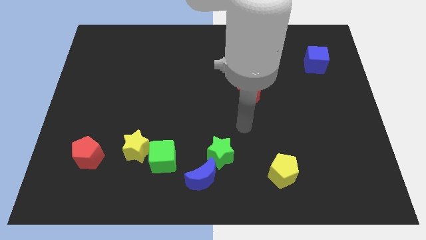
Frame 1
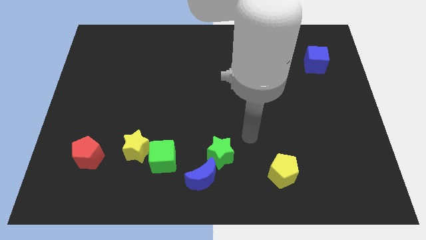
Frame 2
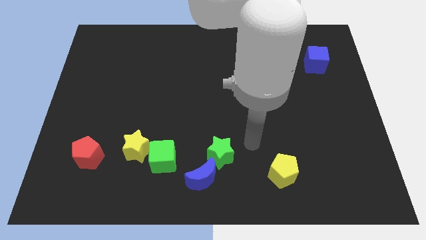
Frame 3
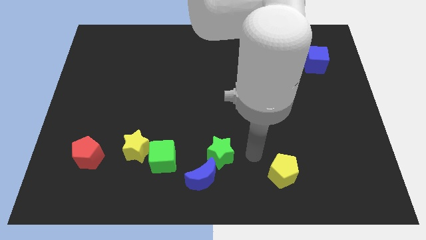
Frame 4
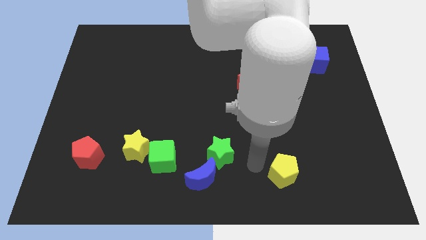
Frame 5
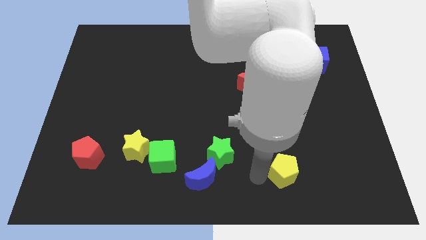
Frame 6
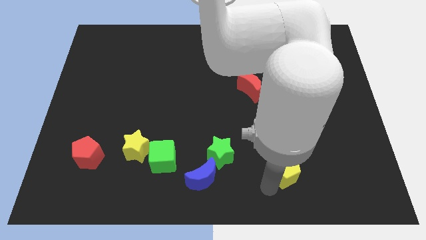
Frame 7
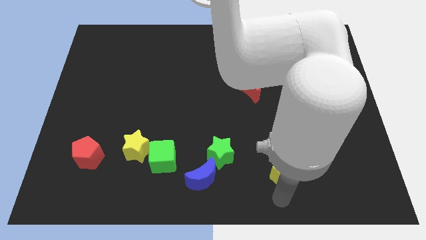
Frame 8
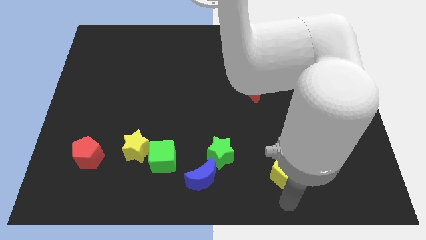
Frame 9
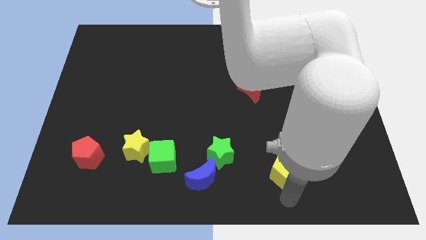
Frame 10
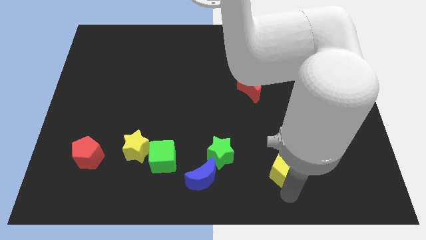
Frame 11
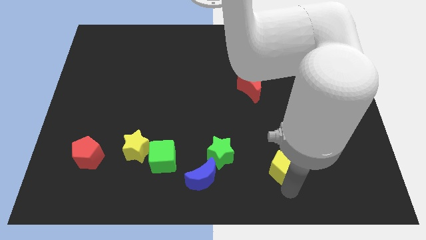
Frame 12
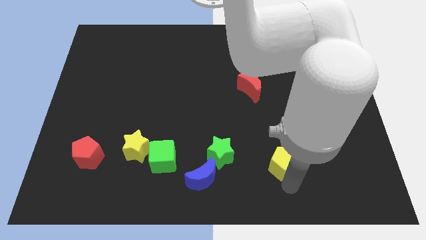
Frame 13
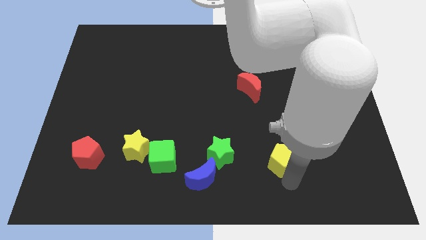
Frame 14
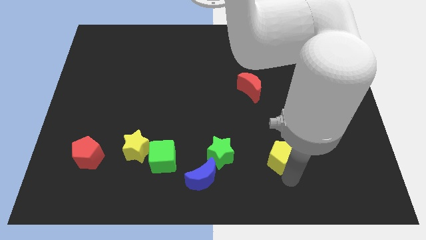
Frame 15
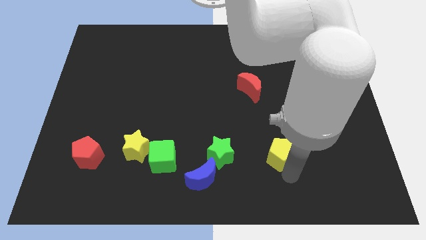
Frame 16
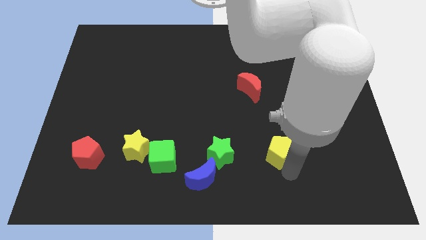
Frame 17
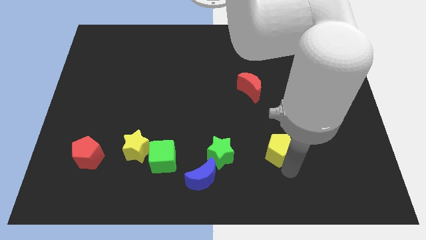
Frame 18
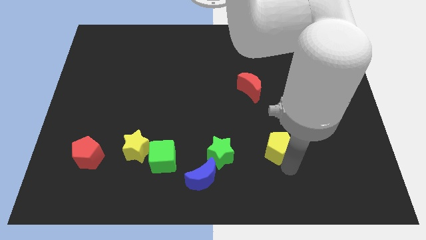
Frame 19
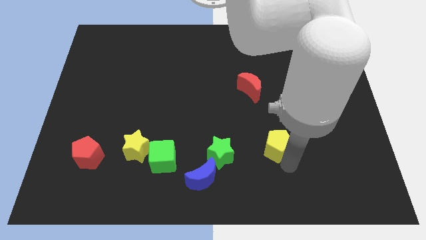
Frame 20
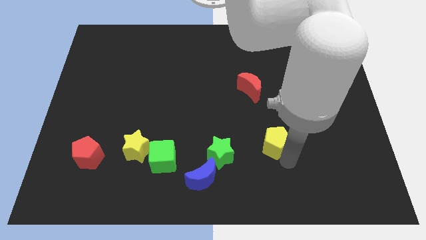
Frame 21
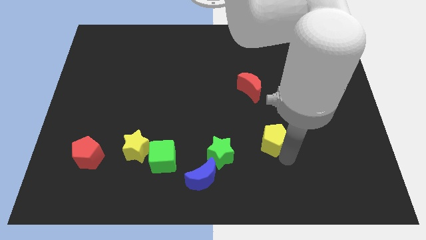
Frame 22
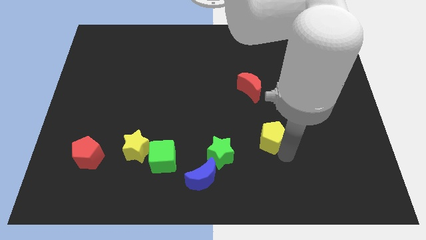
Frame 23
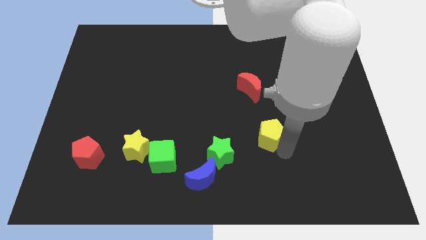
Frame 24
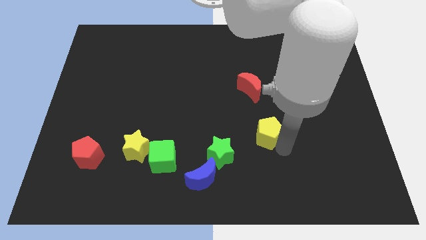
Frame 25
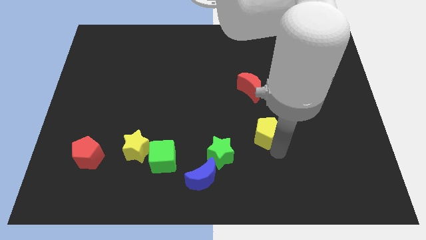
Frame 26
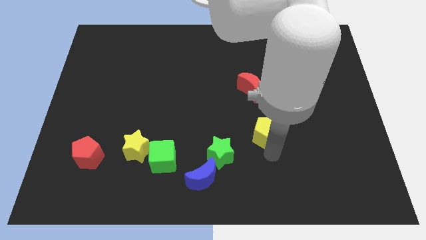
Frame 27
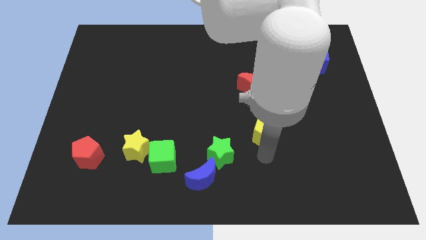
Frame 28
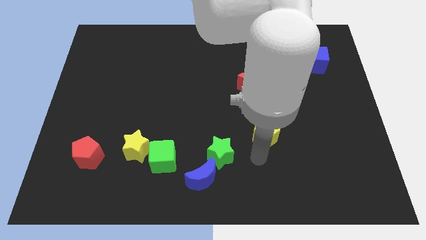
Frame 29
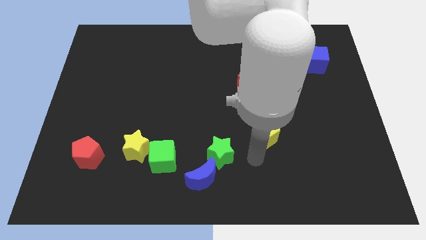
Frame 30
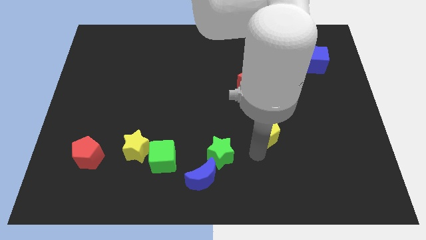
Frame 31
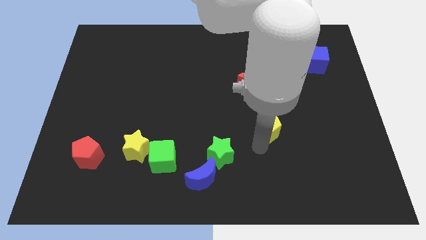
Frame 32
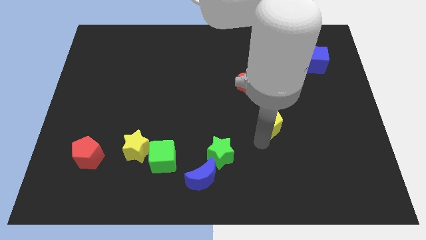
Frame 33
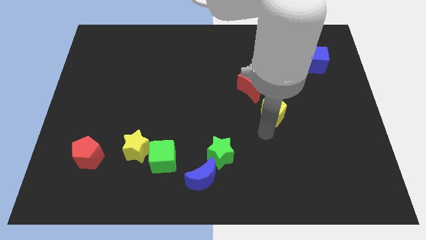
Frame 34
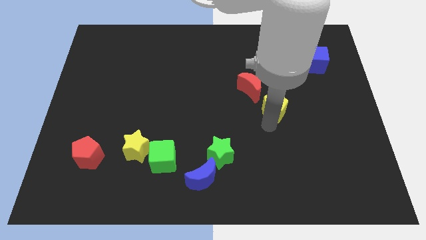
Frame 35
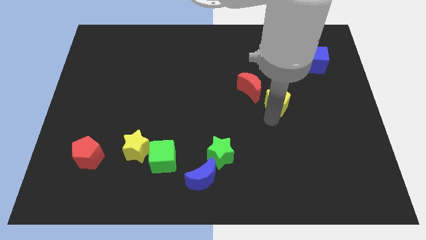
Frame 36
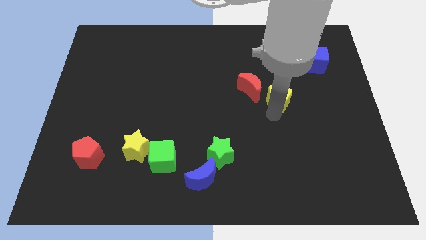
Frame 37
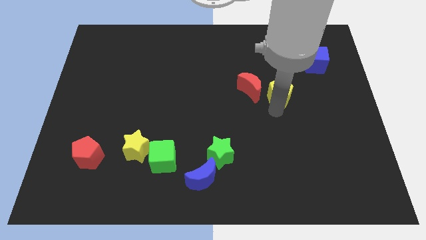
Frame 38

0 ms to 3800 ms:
push the yellow pentagon upwards

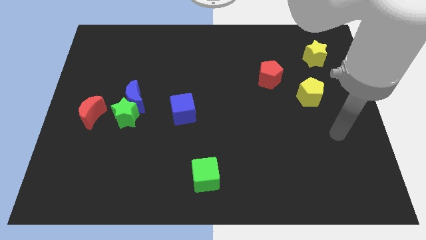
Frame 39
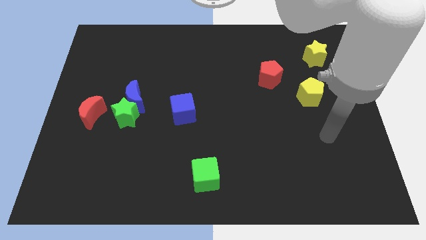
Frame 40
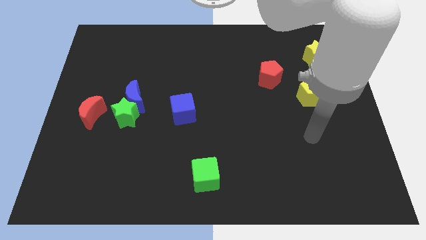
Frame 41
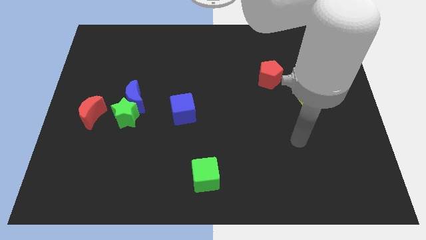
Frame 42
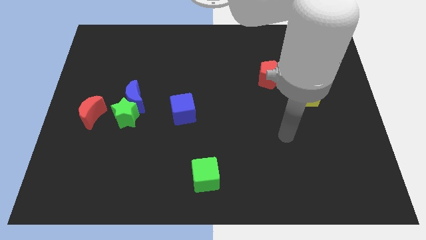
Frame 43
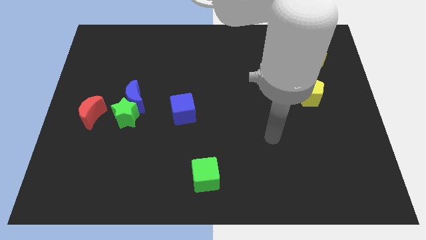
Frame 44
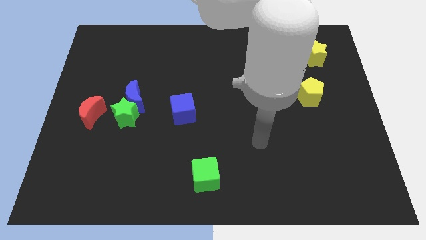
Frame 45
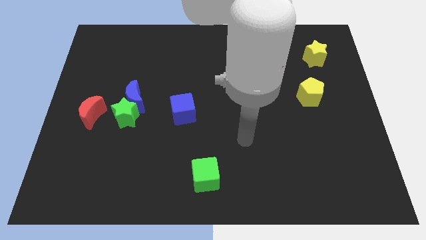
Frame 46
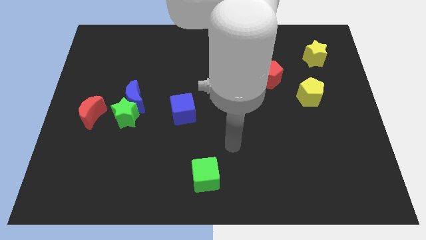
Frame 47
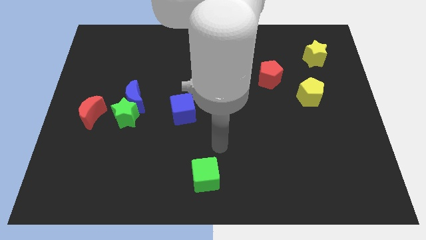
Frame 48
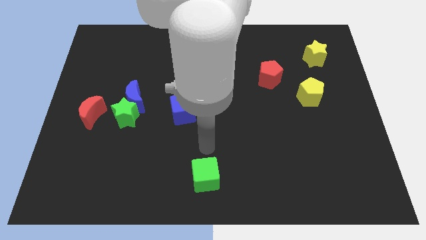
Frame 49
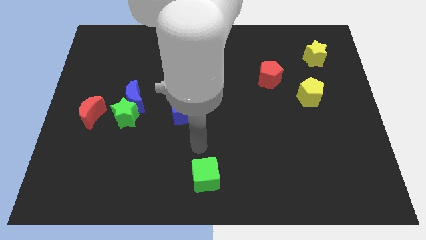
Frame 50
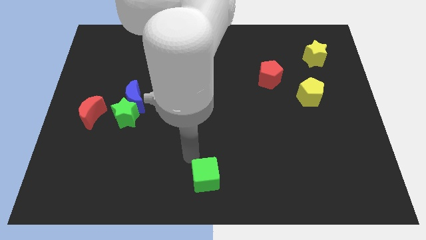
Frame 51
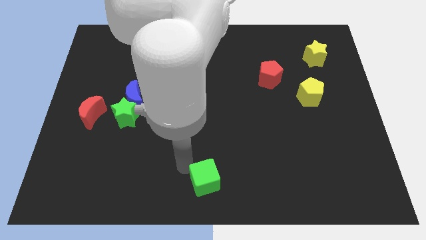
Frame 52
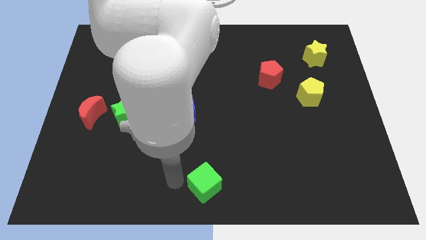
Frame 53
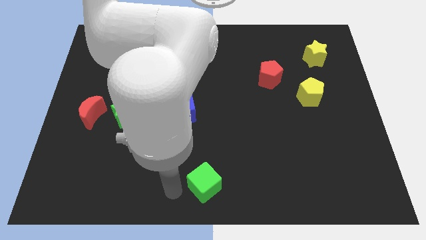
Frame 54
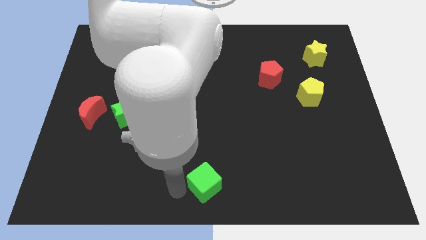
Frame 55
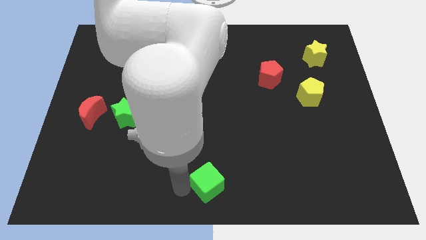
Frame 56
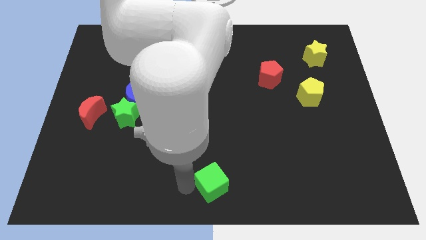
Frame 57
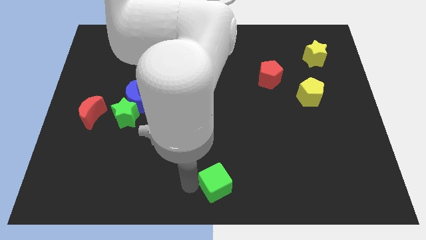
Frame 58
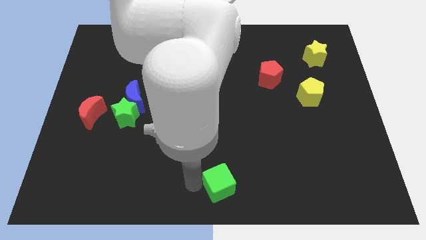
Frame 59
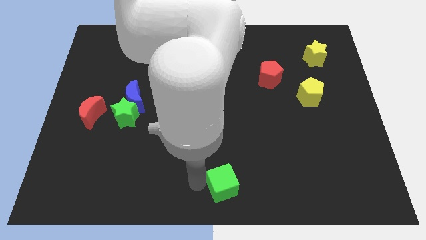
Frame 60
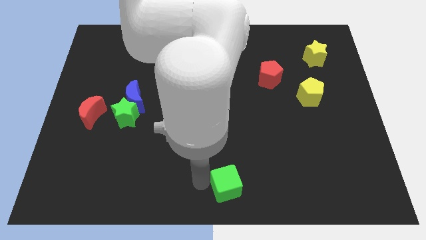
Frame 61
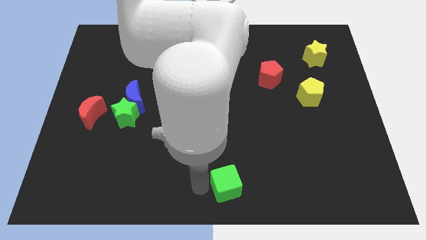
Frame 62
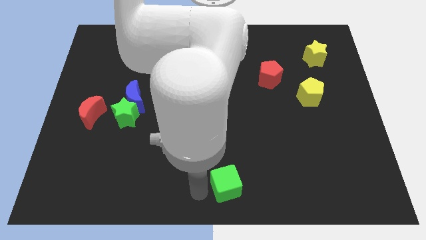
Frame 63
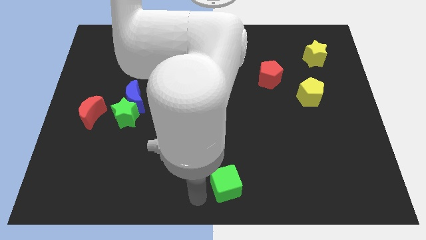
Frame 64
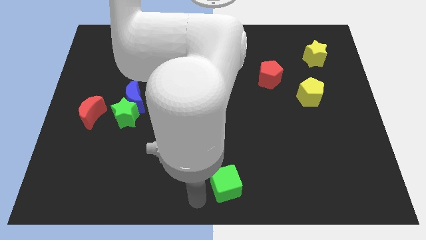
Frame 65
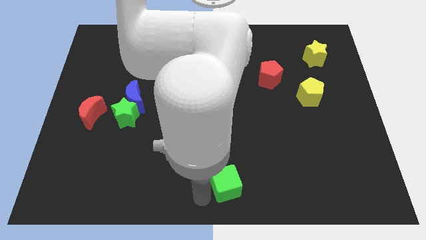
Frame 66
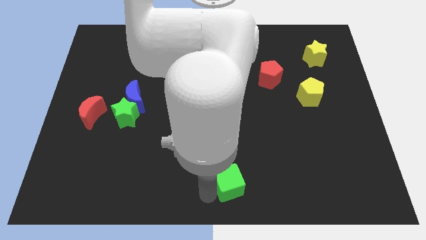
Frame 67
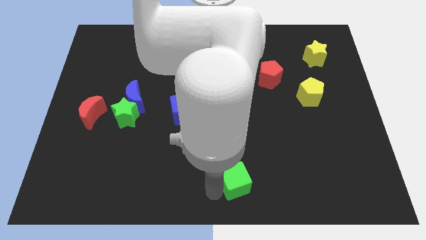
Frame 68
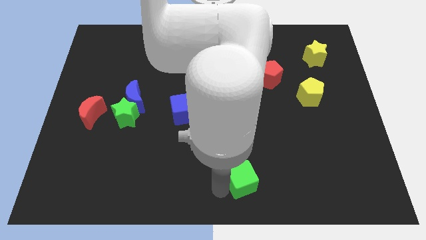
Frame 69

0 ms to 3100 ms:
slightly move the green cube right

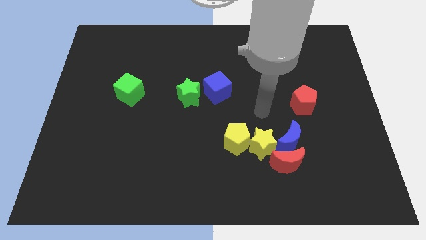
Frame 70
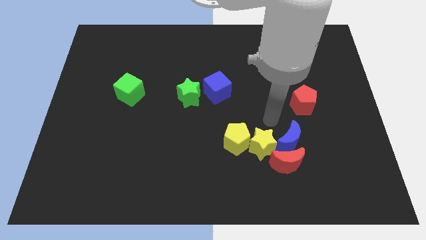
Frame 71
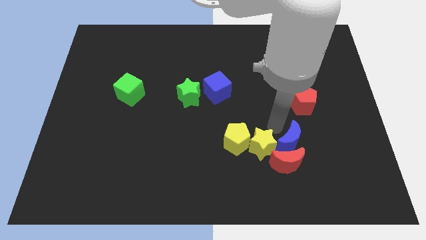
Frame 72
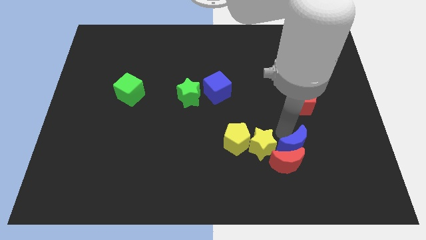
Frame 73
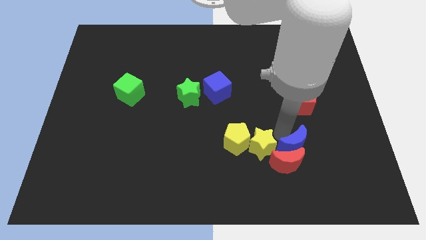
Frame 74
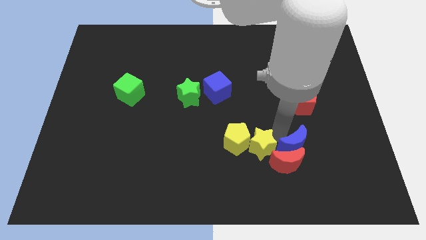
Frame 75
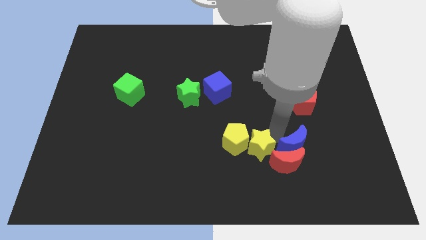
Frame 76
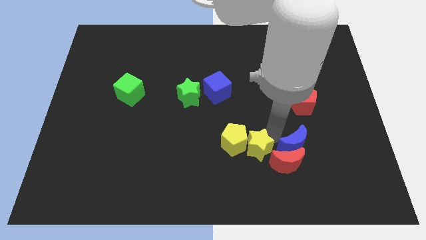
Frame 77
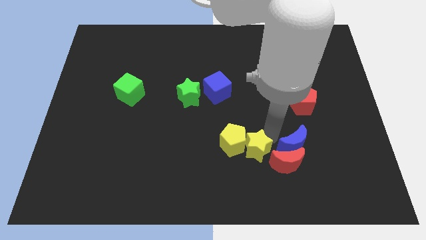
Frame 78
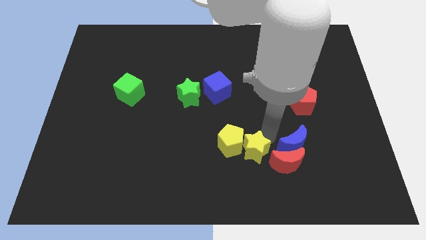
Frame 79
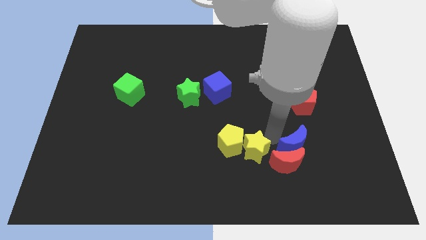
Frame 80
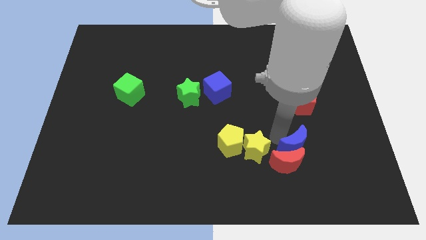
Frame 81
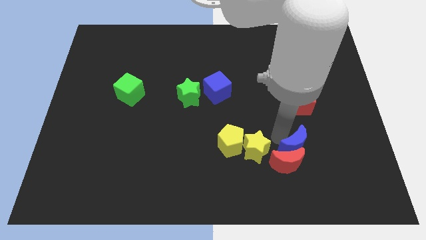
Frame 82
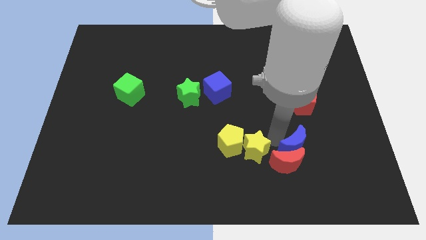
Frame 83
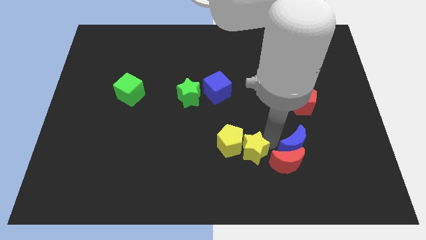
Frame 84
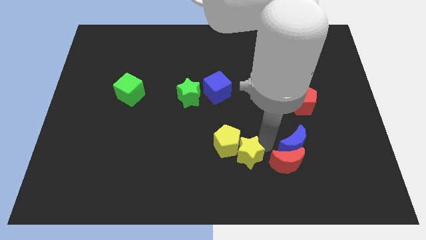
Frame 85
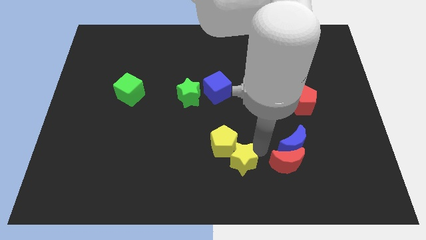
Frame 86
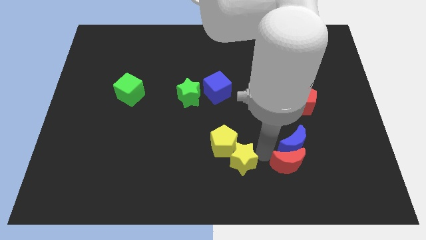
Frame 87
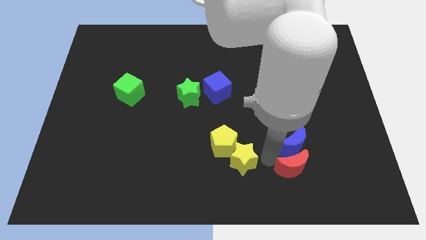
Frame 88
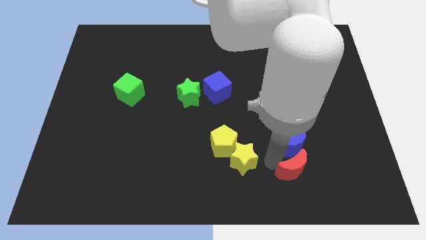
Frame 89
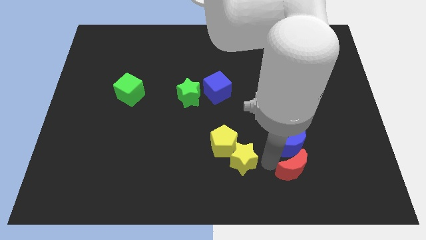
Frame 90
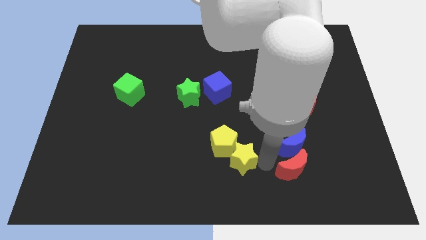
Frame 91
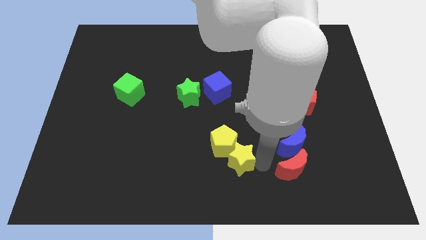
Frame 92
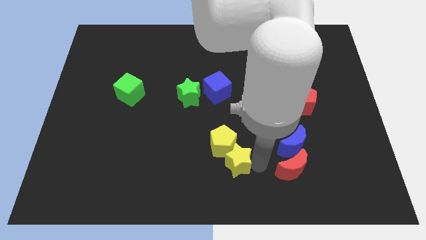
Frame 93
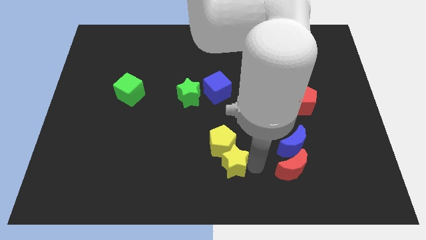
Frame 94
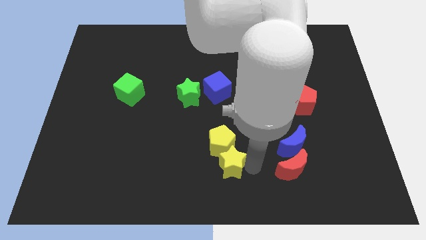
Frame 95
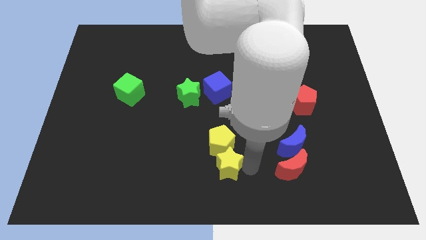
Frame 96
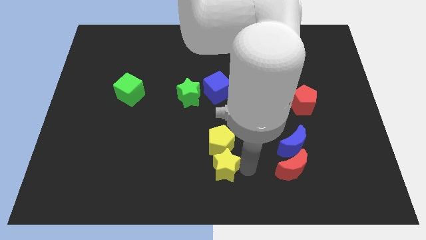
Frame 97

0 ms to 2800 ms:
slide the yellow star somewhat to the left
